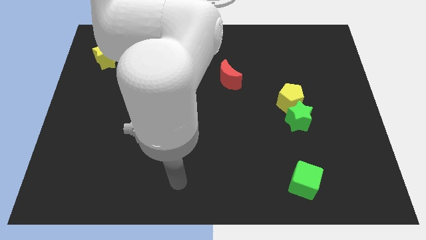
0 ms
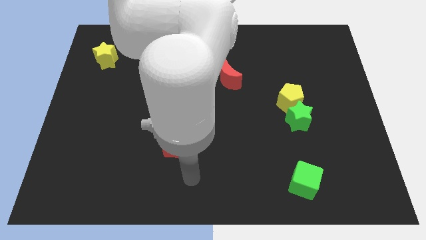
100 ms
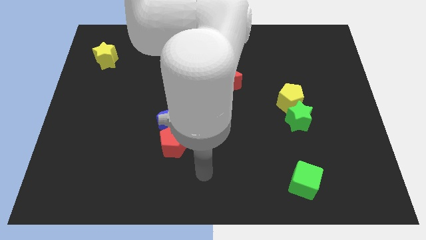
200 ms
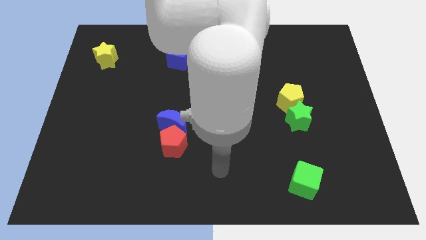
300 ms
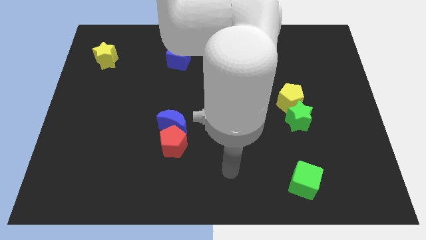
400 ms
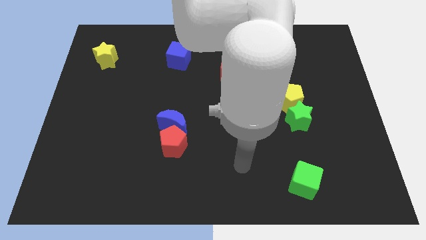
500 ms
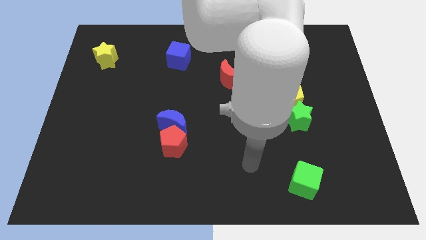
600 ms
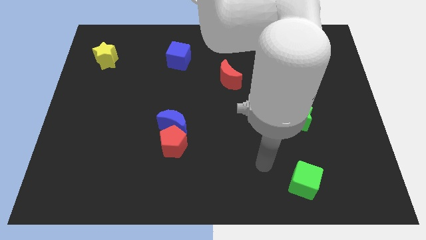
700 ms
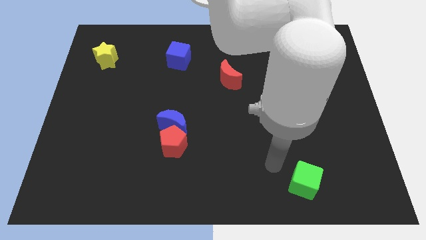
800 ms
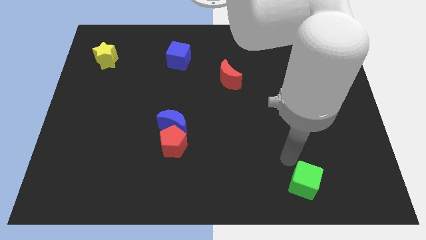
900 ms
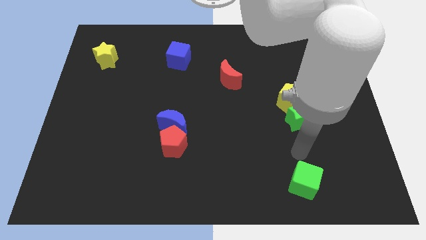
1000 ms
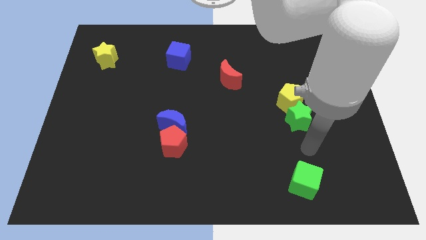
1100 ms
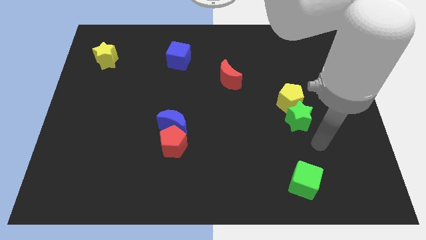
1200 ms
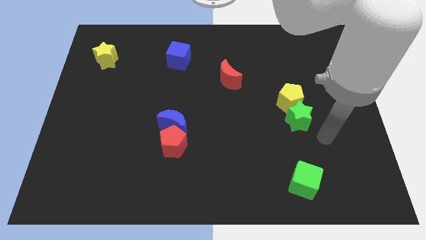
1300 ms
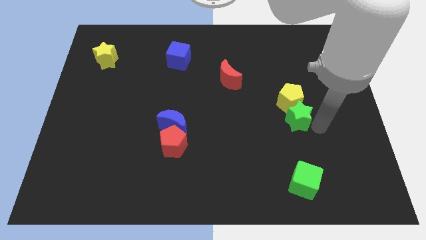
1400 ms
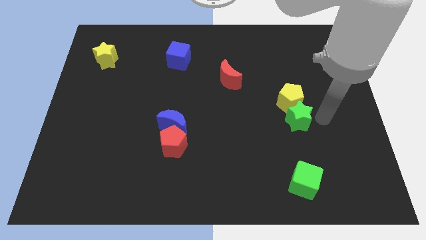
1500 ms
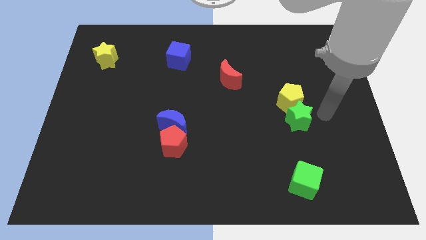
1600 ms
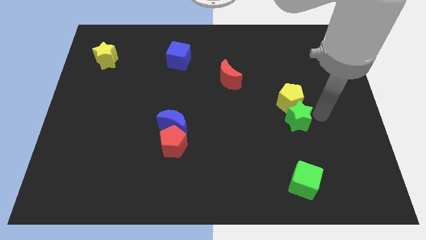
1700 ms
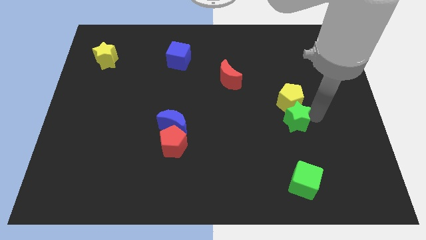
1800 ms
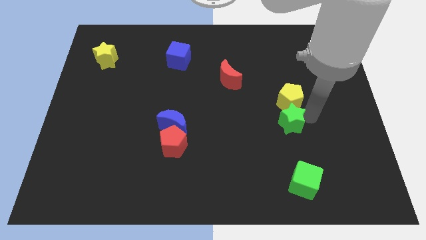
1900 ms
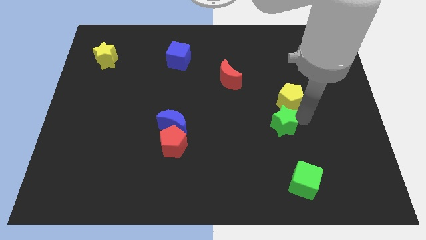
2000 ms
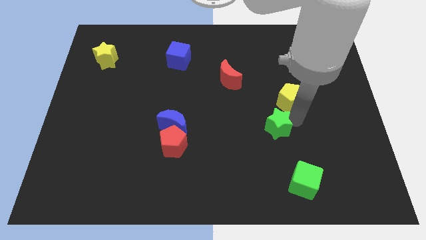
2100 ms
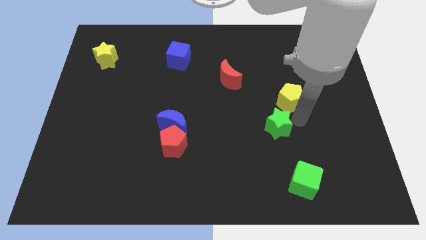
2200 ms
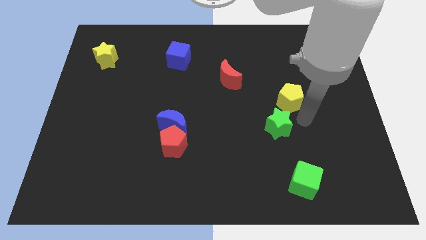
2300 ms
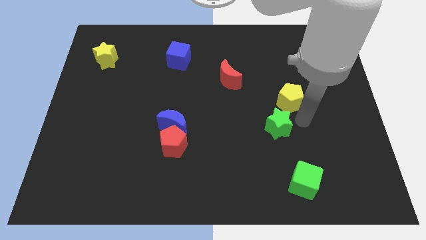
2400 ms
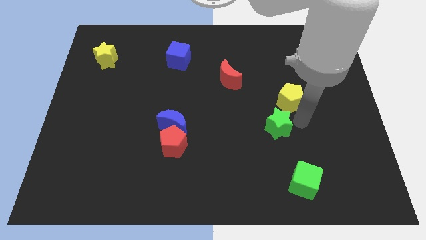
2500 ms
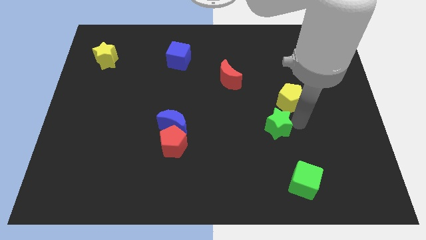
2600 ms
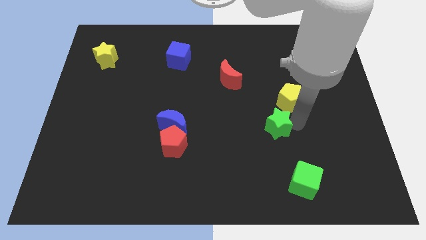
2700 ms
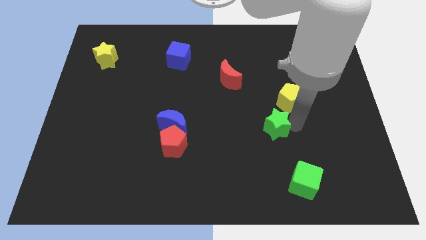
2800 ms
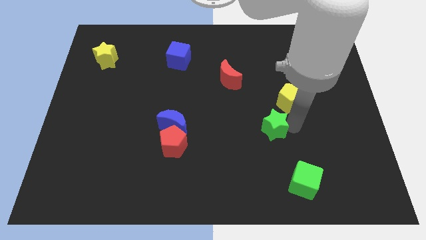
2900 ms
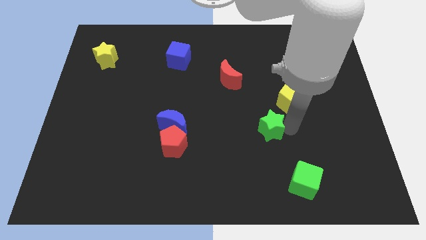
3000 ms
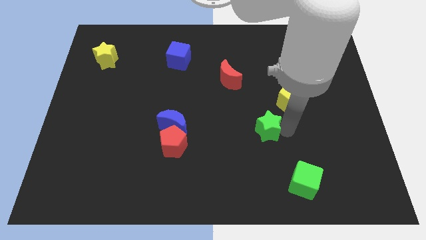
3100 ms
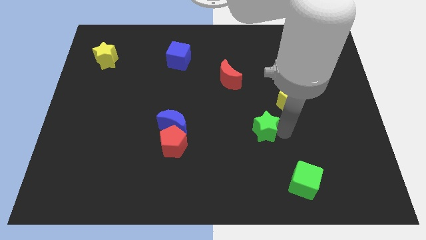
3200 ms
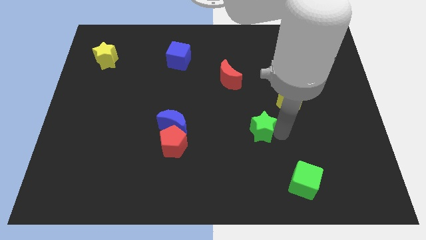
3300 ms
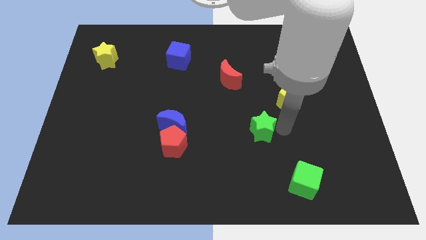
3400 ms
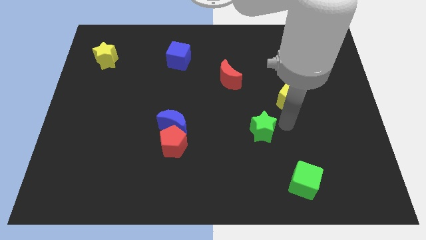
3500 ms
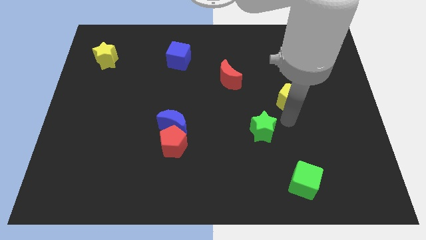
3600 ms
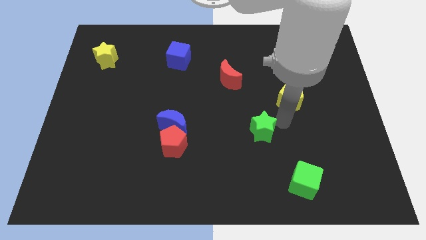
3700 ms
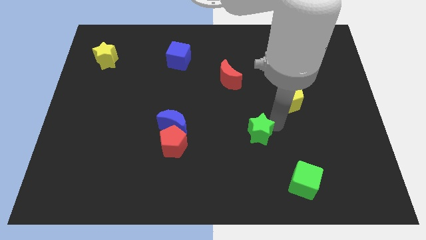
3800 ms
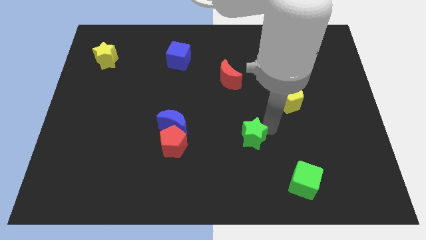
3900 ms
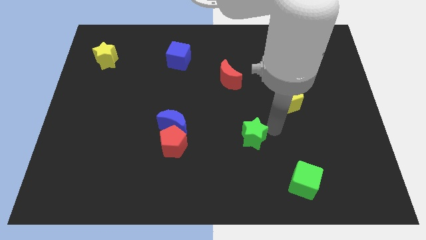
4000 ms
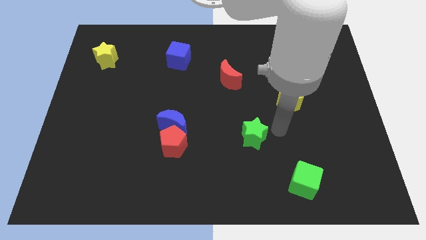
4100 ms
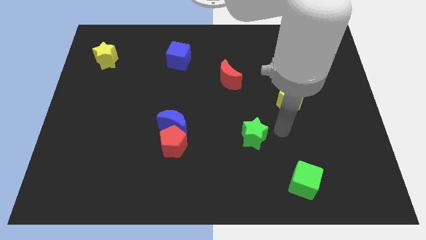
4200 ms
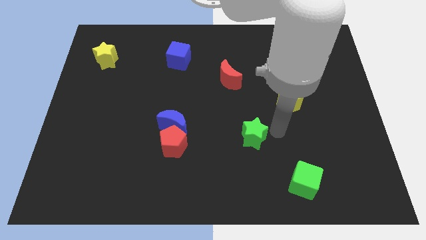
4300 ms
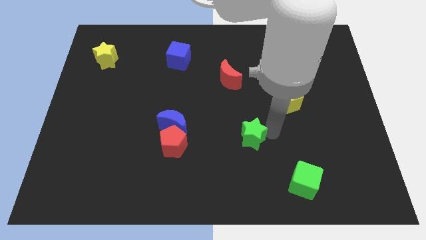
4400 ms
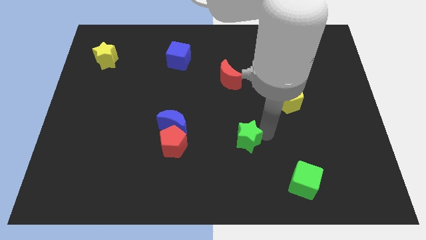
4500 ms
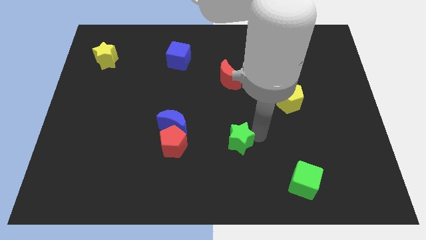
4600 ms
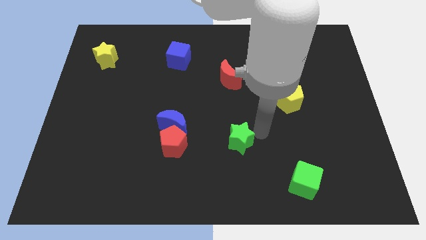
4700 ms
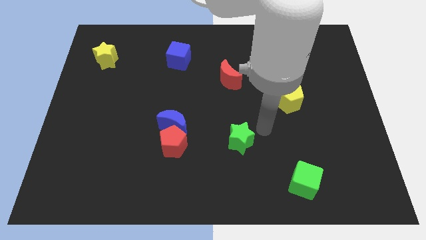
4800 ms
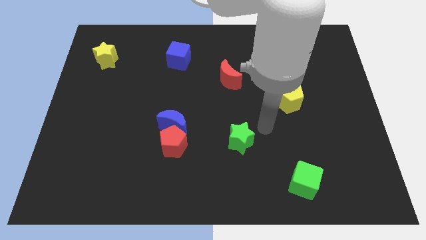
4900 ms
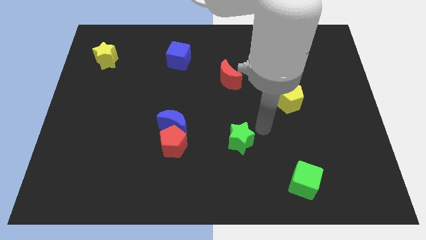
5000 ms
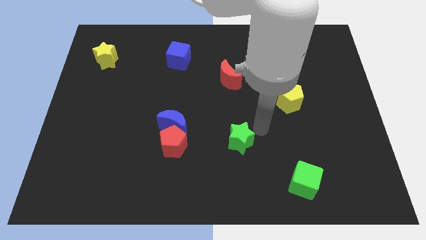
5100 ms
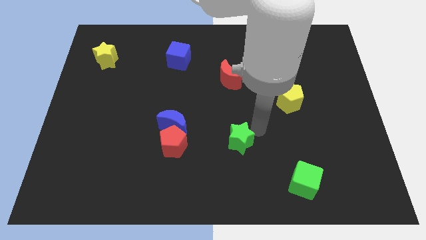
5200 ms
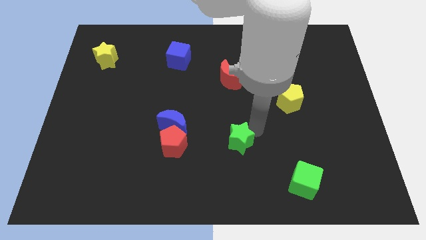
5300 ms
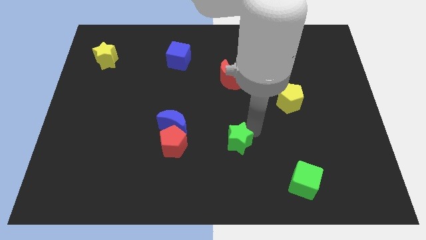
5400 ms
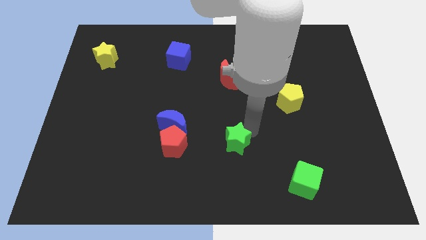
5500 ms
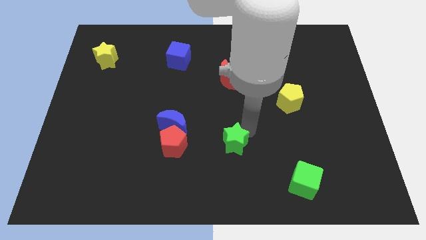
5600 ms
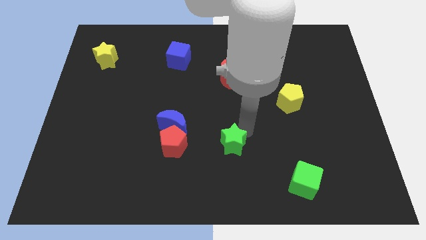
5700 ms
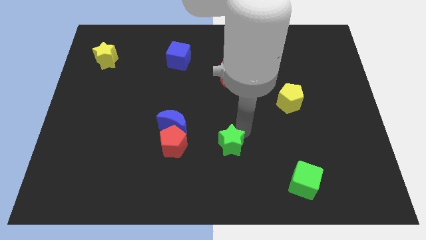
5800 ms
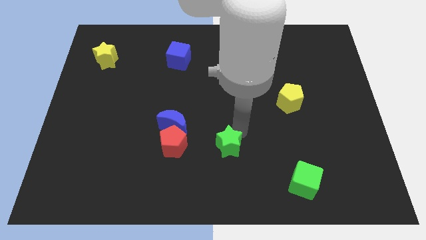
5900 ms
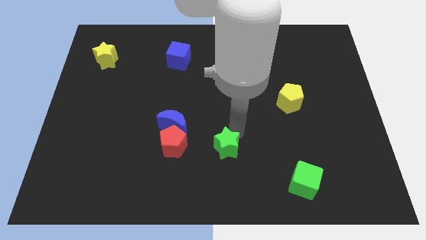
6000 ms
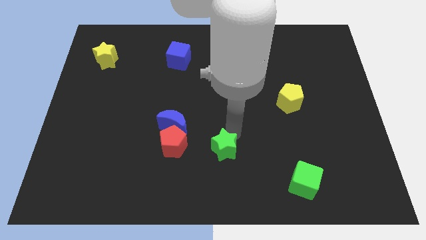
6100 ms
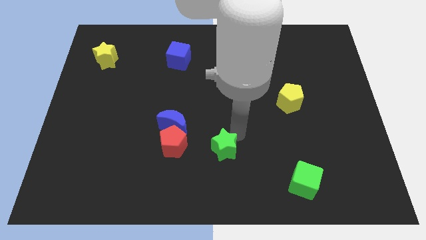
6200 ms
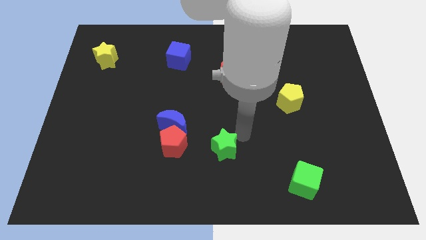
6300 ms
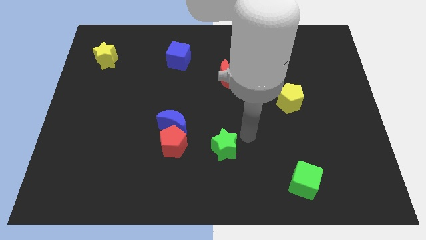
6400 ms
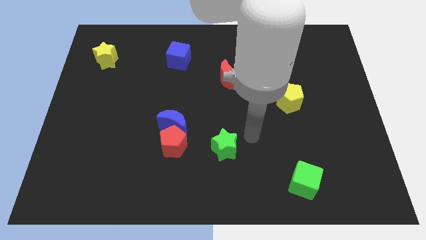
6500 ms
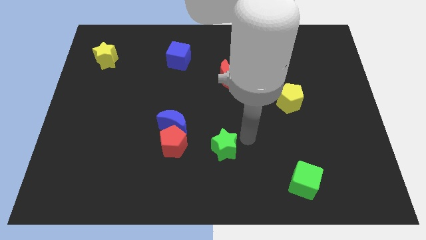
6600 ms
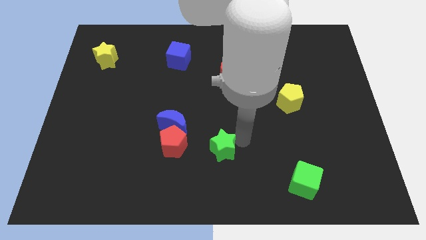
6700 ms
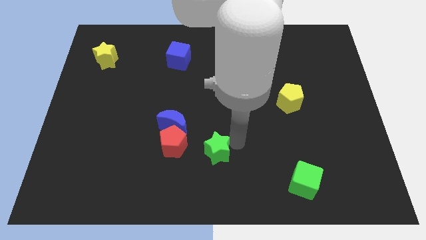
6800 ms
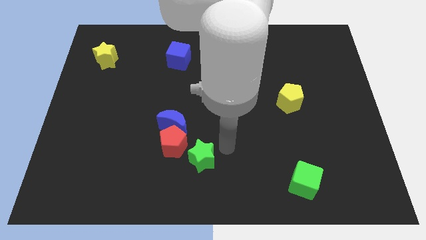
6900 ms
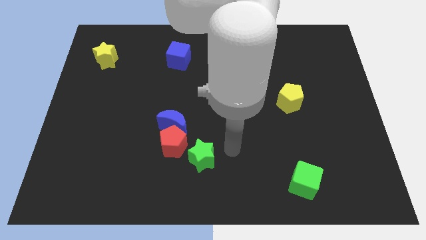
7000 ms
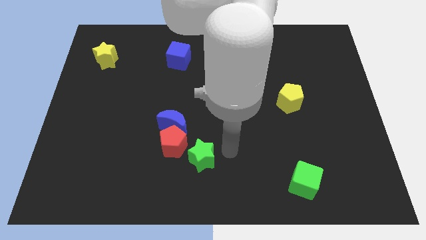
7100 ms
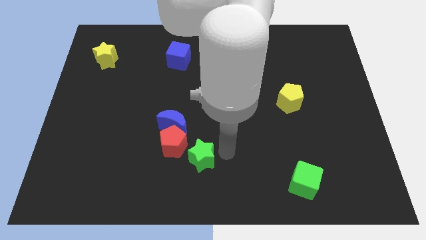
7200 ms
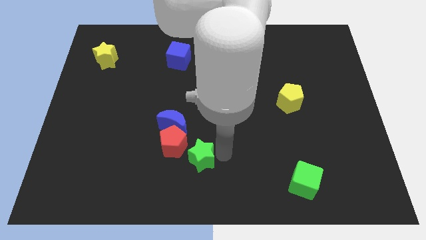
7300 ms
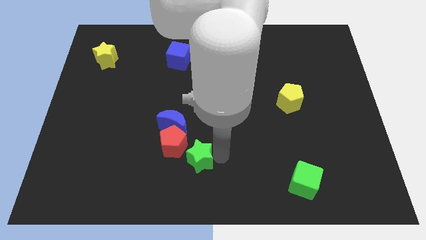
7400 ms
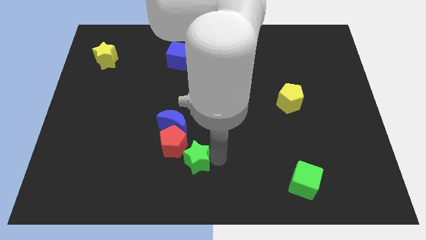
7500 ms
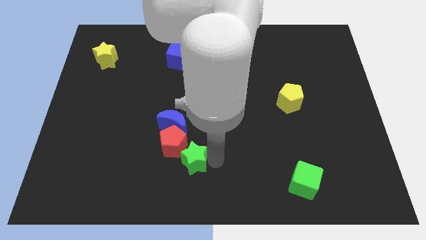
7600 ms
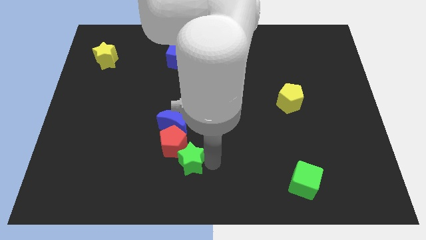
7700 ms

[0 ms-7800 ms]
push the green star to the bottom of the blue moon
